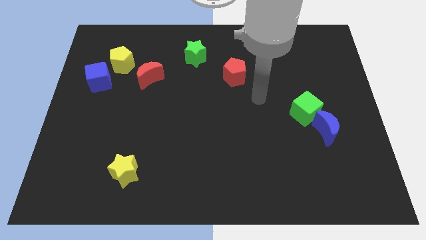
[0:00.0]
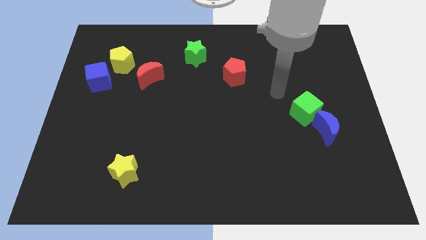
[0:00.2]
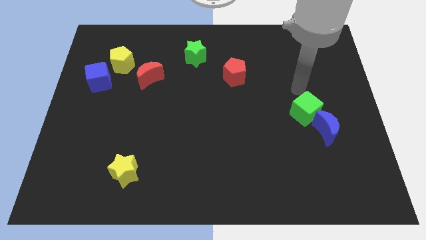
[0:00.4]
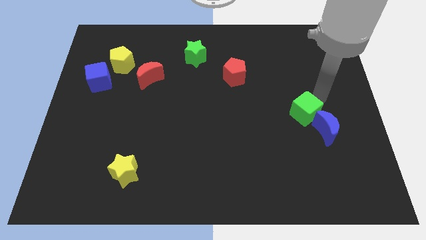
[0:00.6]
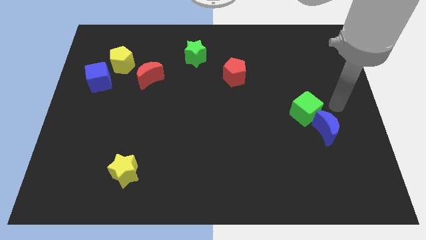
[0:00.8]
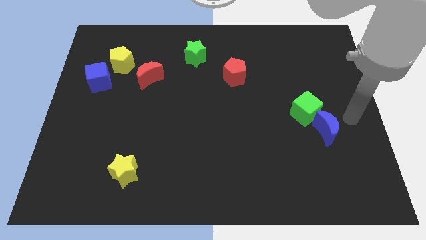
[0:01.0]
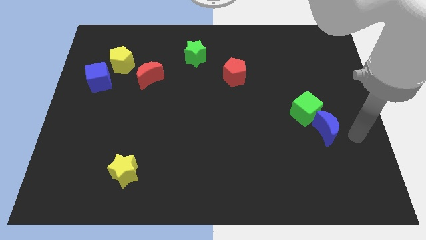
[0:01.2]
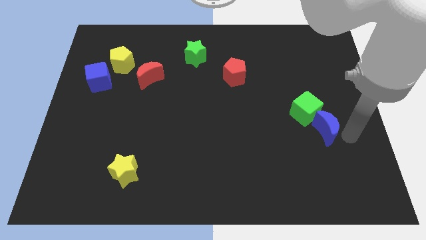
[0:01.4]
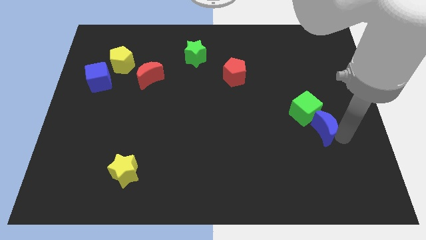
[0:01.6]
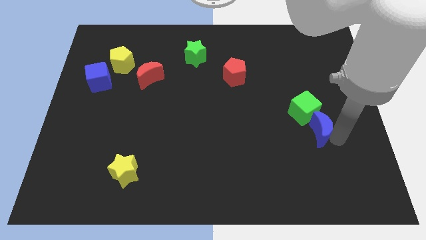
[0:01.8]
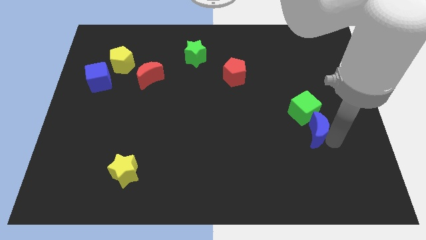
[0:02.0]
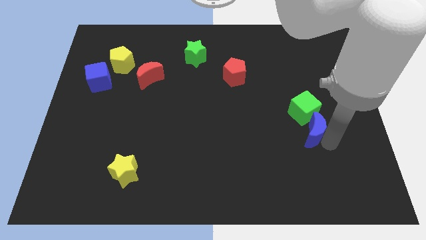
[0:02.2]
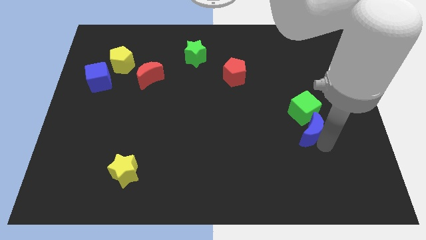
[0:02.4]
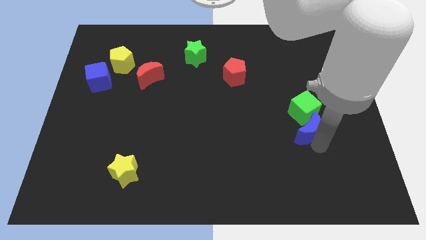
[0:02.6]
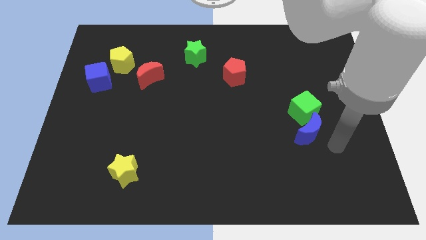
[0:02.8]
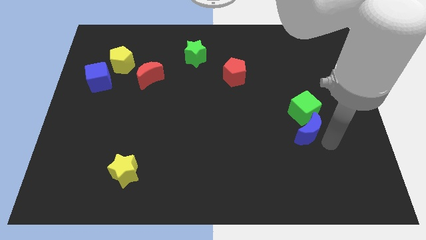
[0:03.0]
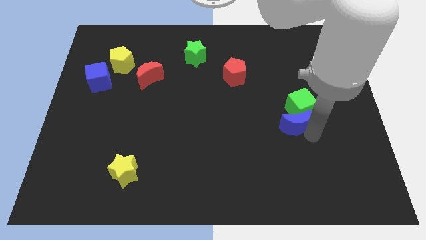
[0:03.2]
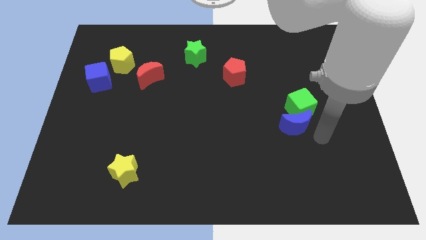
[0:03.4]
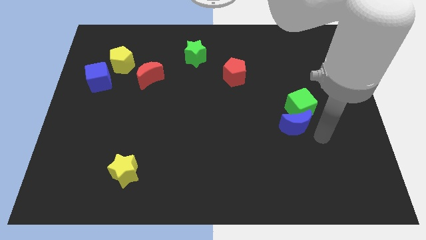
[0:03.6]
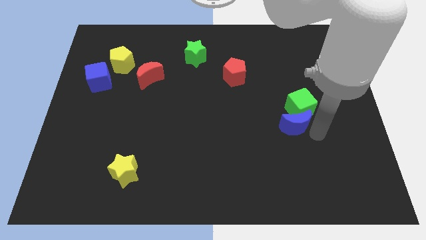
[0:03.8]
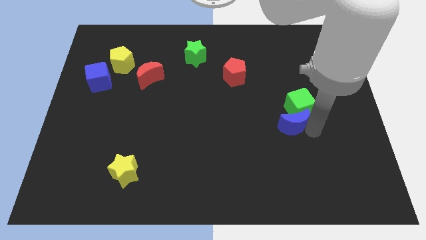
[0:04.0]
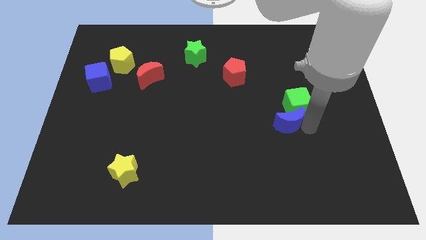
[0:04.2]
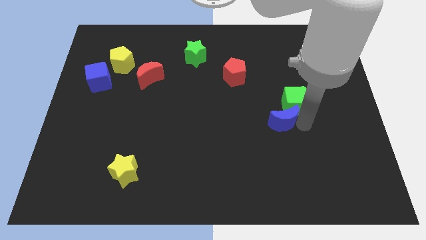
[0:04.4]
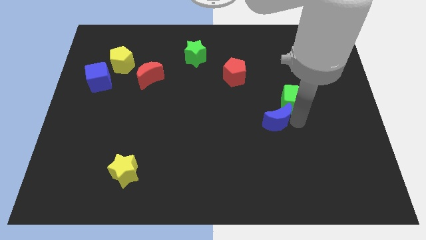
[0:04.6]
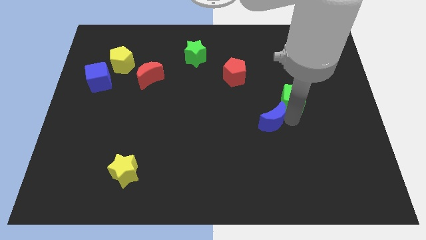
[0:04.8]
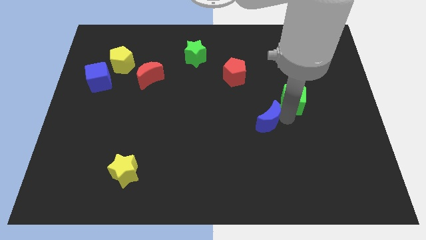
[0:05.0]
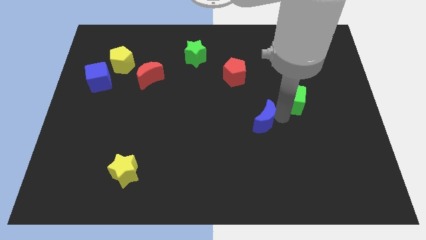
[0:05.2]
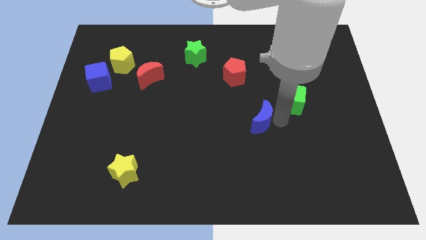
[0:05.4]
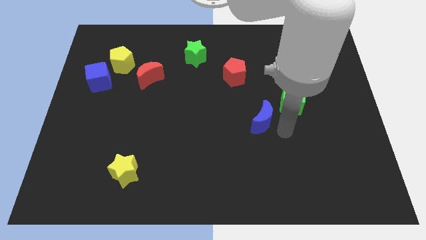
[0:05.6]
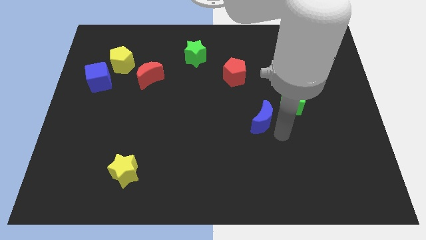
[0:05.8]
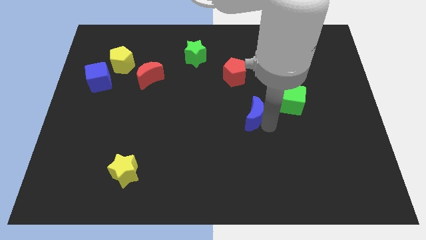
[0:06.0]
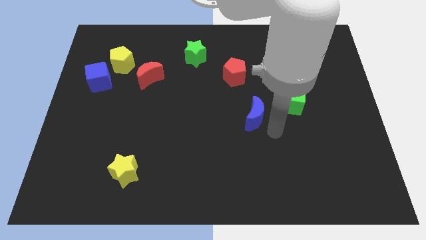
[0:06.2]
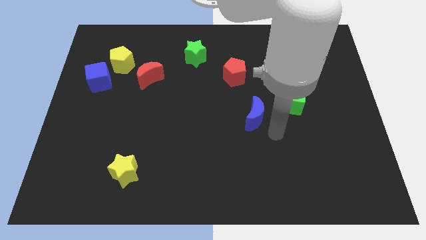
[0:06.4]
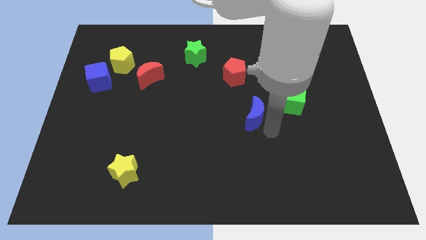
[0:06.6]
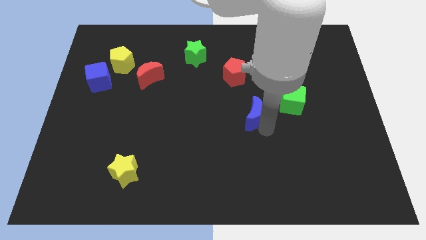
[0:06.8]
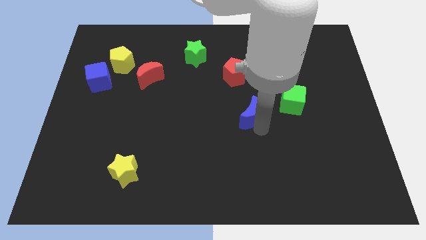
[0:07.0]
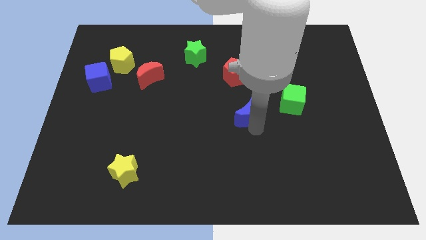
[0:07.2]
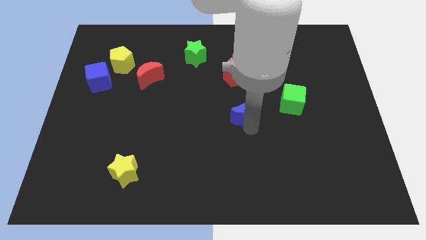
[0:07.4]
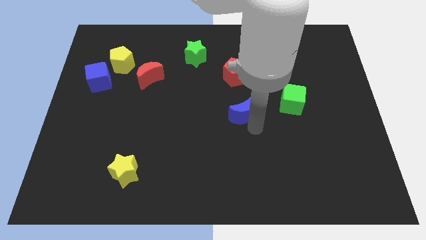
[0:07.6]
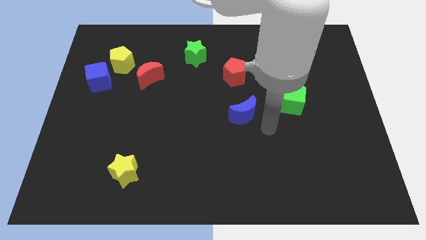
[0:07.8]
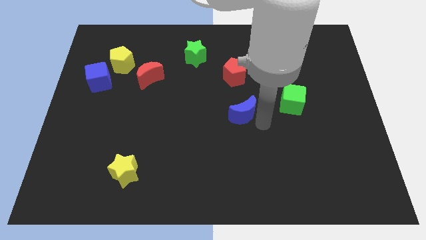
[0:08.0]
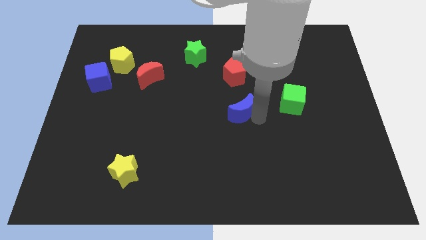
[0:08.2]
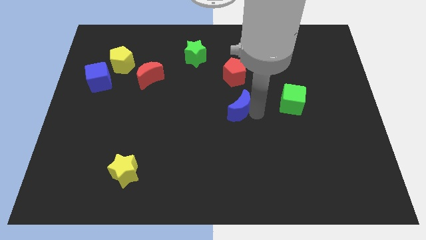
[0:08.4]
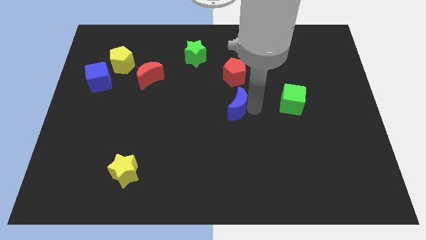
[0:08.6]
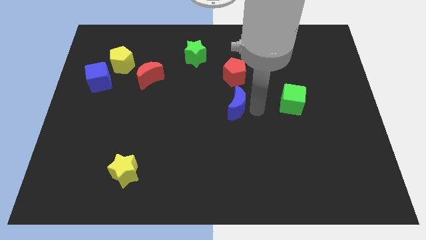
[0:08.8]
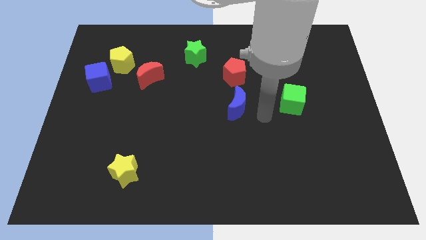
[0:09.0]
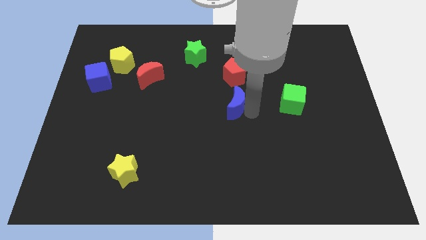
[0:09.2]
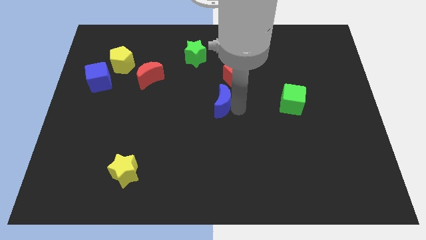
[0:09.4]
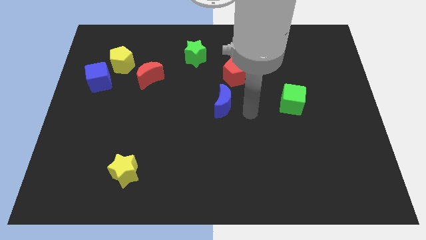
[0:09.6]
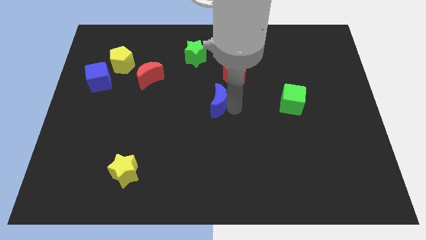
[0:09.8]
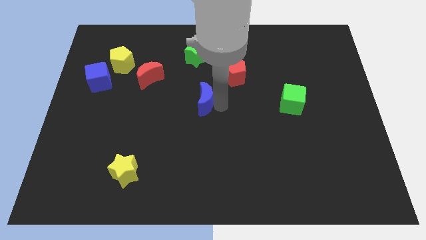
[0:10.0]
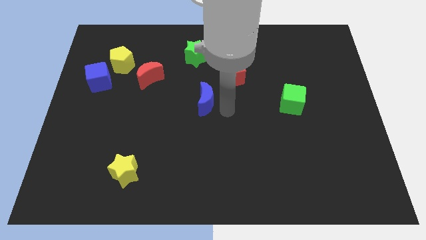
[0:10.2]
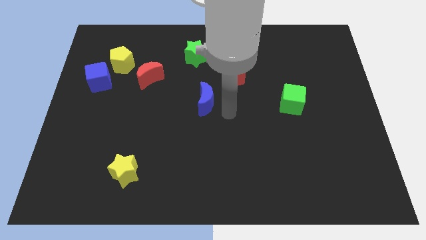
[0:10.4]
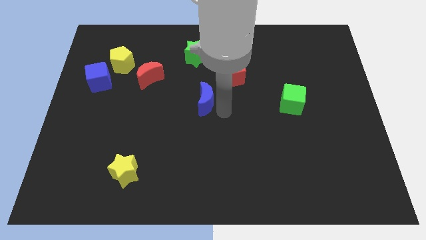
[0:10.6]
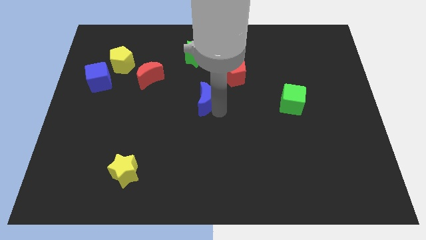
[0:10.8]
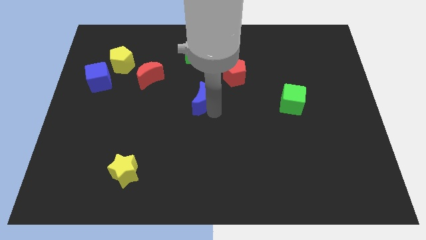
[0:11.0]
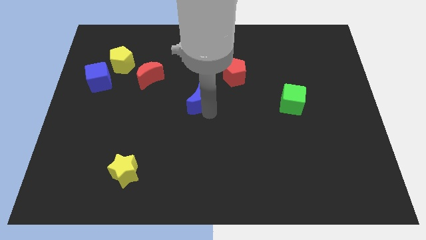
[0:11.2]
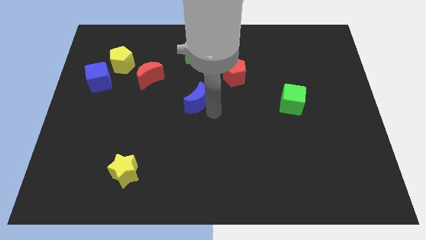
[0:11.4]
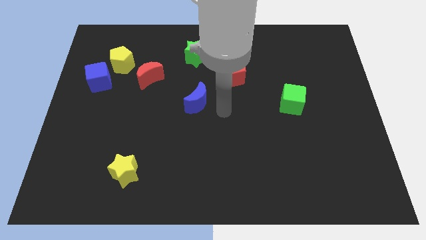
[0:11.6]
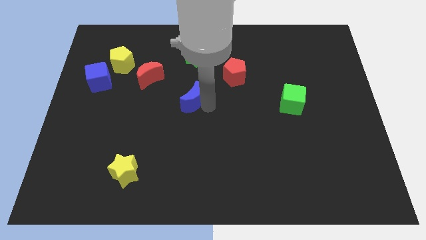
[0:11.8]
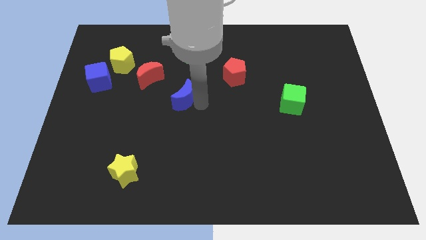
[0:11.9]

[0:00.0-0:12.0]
put the blue moon to the bottom right side of the red moon
